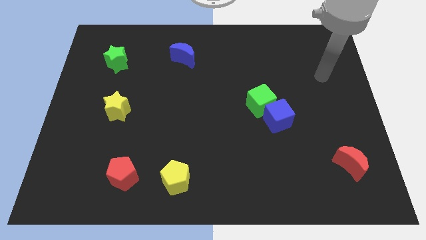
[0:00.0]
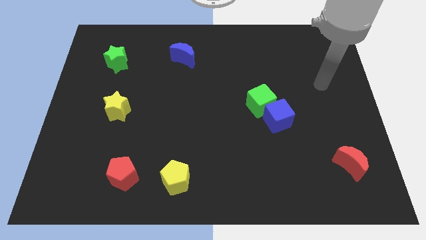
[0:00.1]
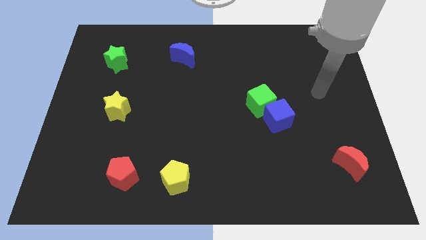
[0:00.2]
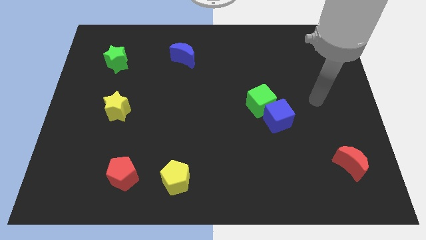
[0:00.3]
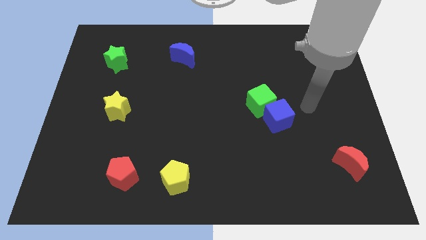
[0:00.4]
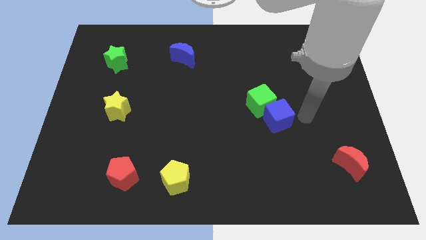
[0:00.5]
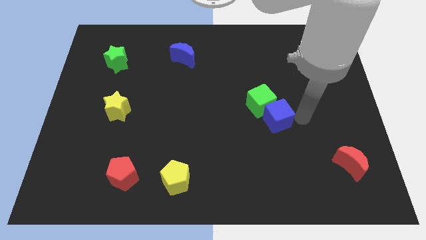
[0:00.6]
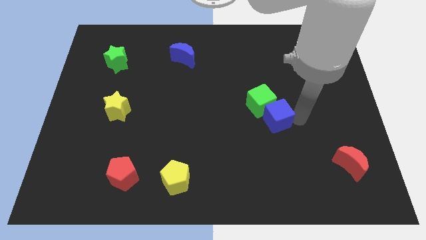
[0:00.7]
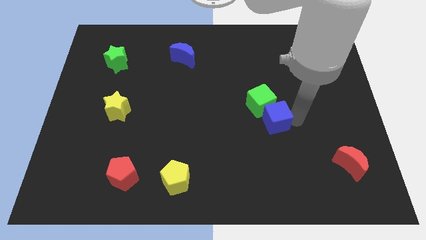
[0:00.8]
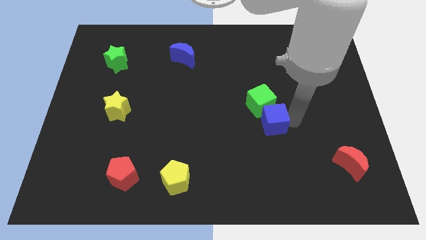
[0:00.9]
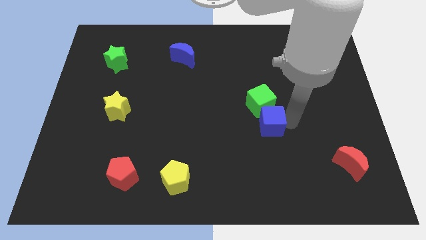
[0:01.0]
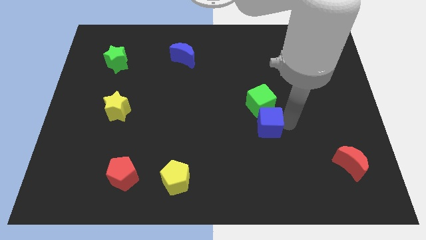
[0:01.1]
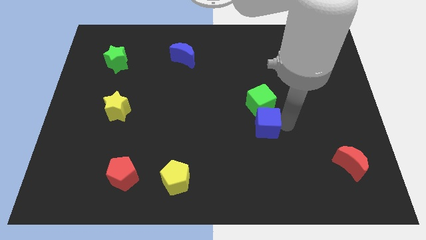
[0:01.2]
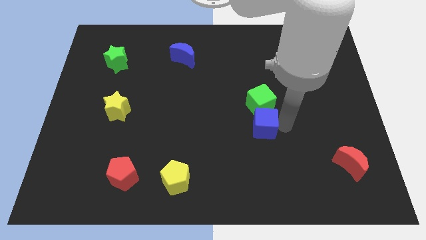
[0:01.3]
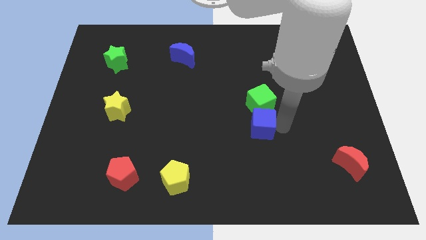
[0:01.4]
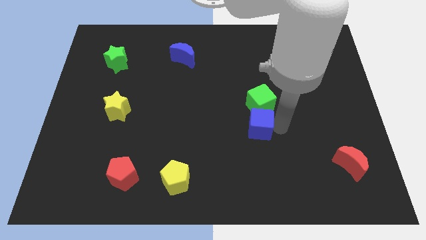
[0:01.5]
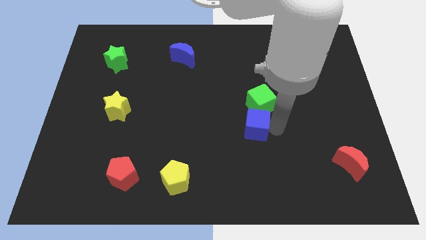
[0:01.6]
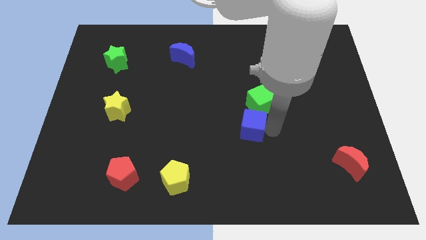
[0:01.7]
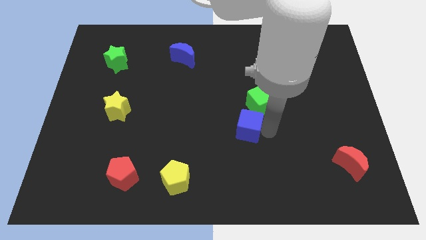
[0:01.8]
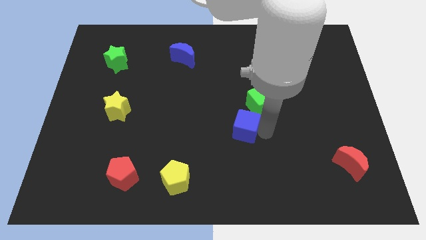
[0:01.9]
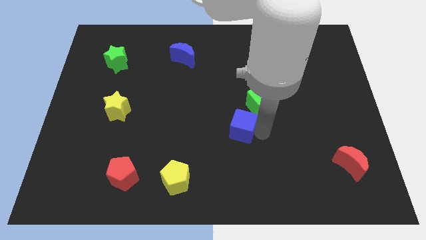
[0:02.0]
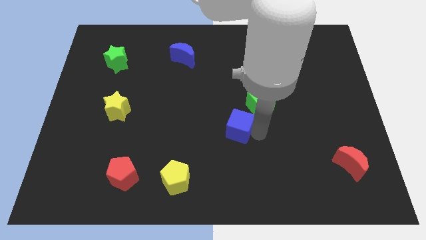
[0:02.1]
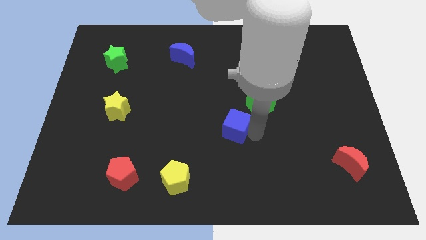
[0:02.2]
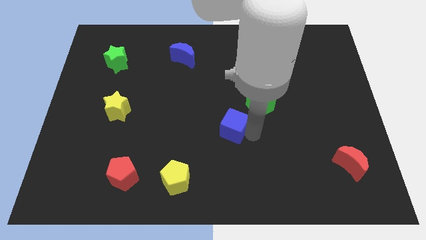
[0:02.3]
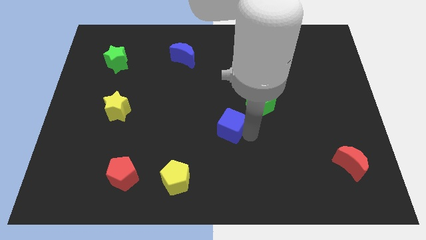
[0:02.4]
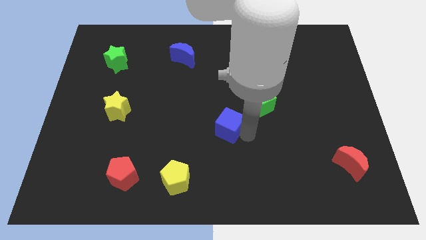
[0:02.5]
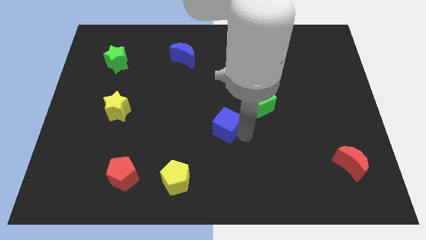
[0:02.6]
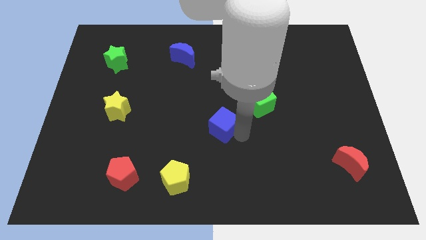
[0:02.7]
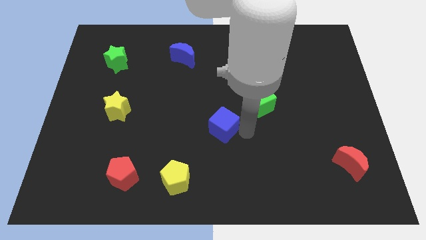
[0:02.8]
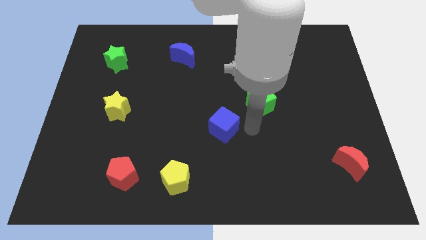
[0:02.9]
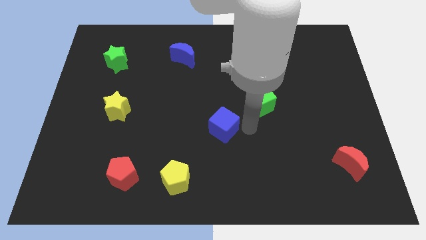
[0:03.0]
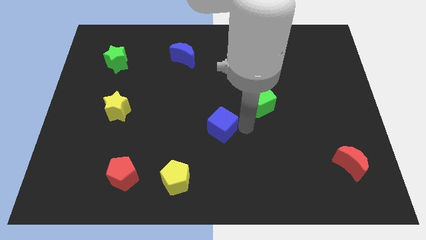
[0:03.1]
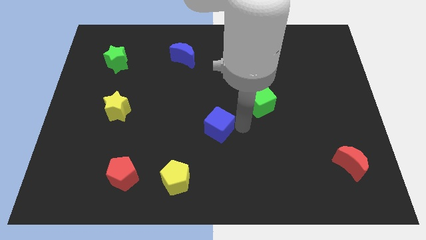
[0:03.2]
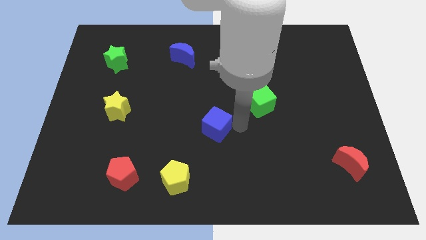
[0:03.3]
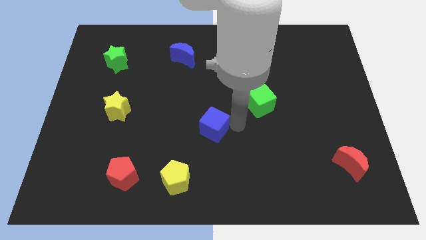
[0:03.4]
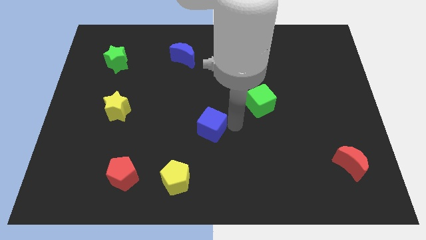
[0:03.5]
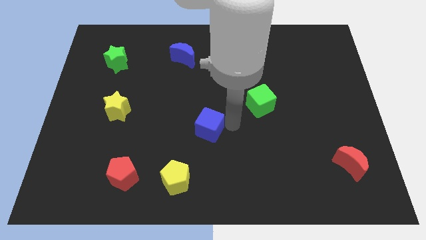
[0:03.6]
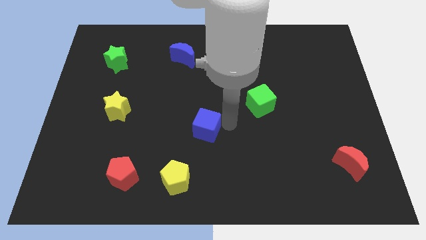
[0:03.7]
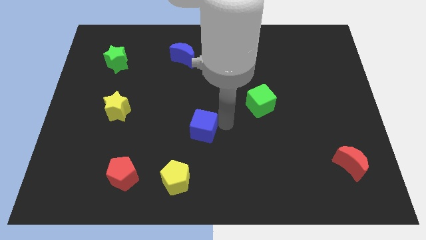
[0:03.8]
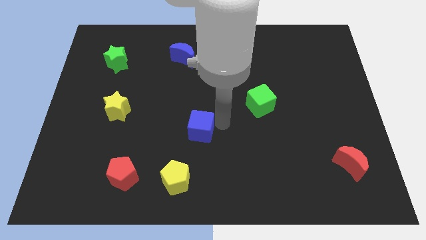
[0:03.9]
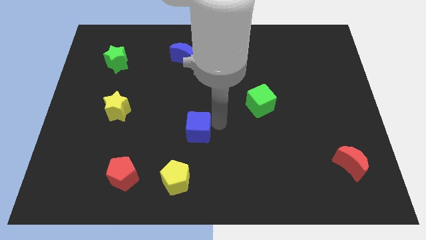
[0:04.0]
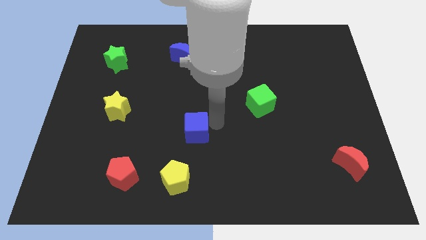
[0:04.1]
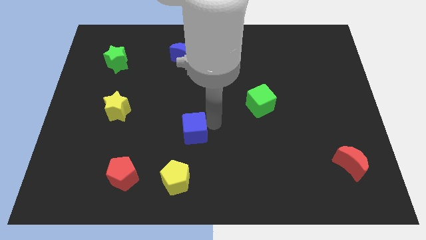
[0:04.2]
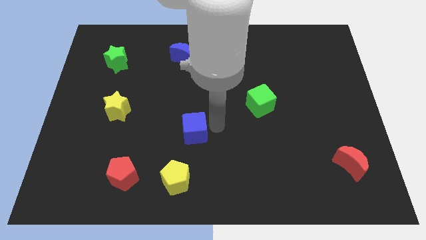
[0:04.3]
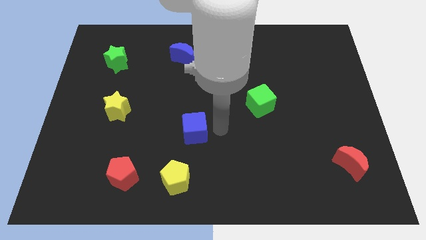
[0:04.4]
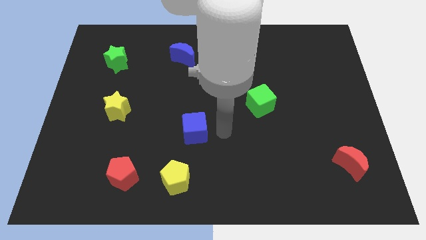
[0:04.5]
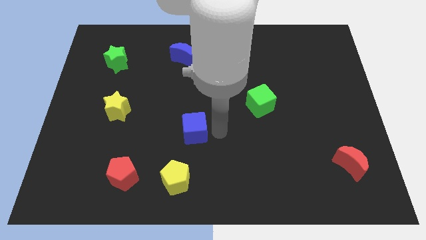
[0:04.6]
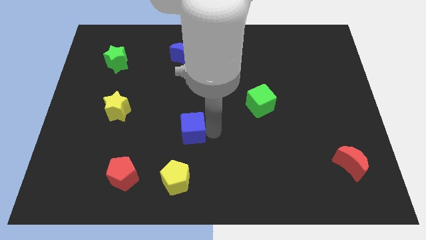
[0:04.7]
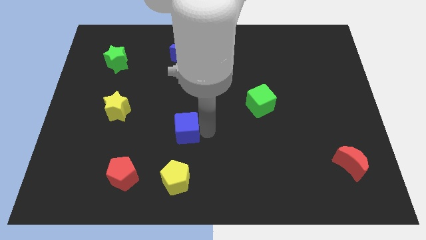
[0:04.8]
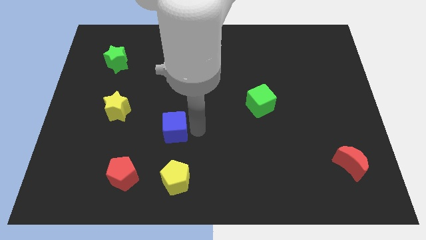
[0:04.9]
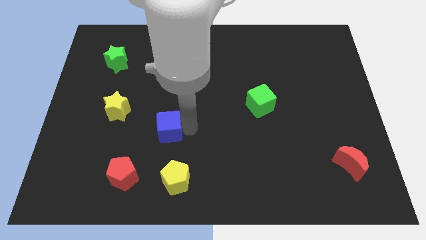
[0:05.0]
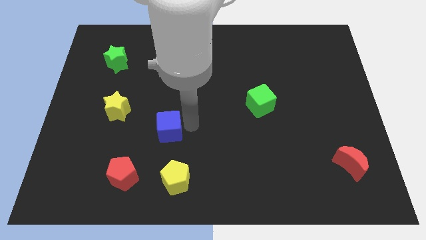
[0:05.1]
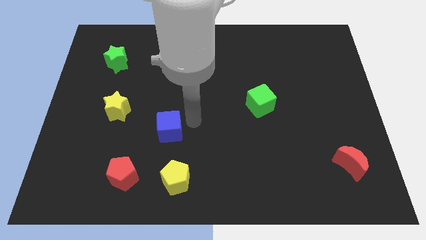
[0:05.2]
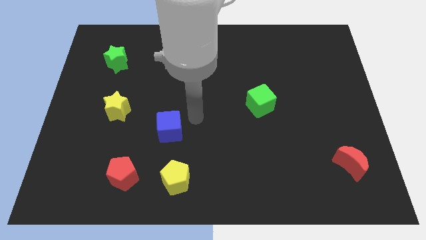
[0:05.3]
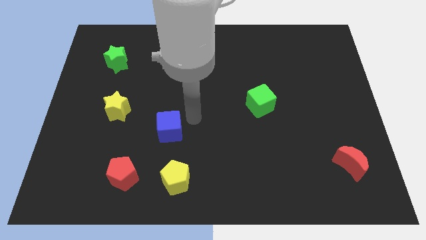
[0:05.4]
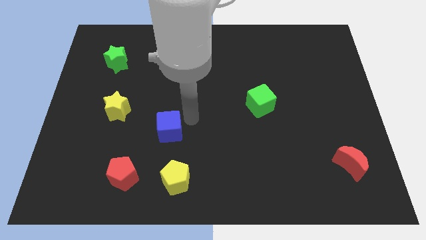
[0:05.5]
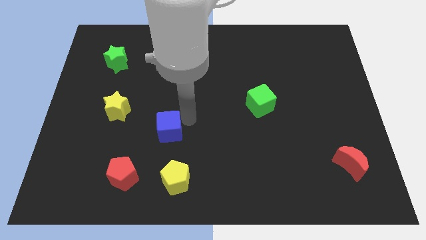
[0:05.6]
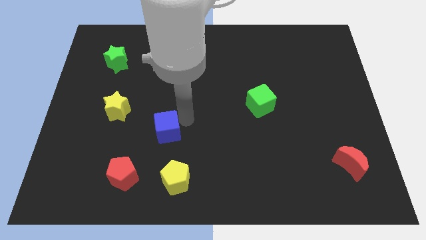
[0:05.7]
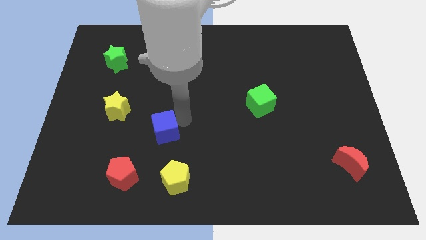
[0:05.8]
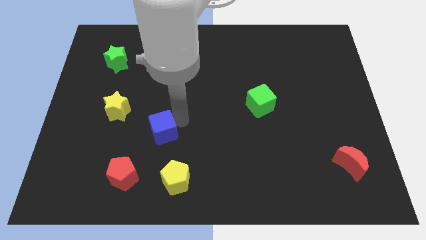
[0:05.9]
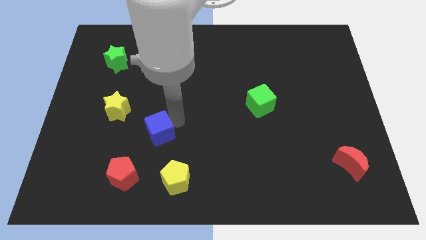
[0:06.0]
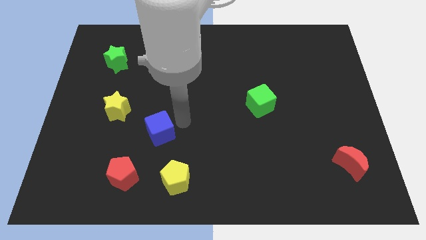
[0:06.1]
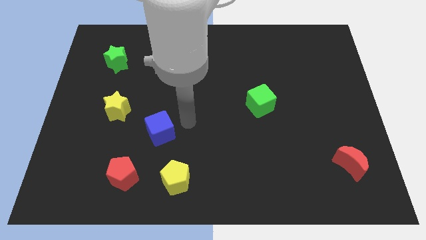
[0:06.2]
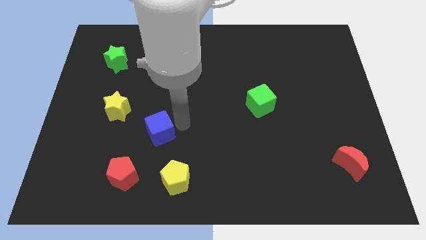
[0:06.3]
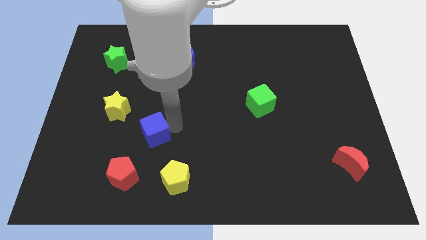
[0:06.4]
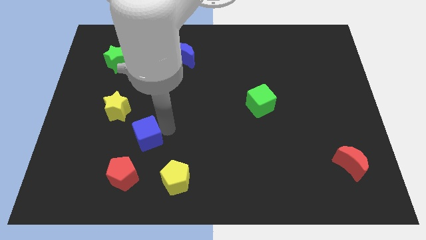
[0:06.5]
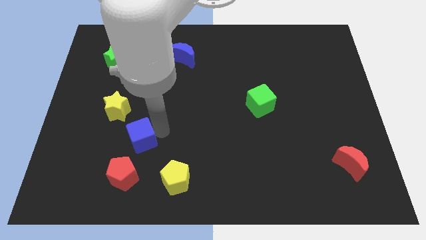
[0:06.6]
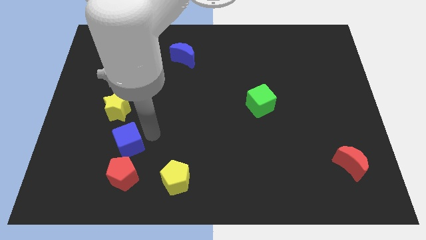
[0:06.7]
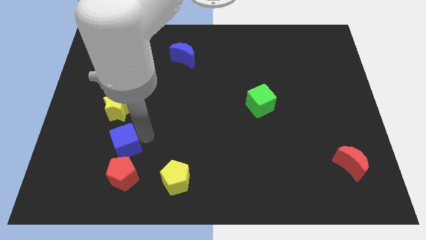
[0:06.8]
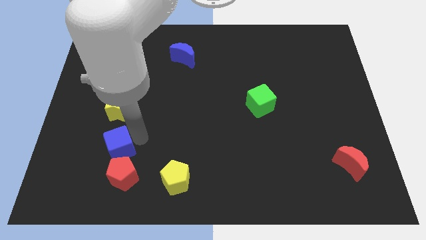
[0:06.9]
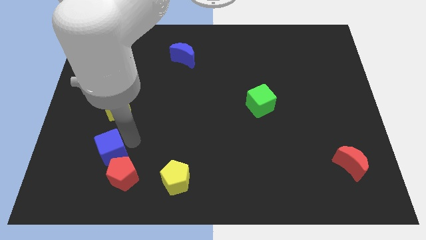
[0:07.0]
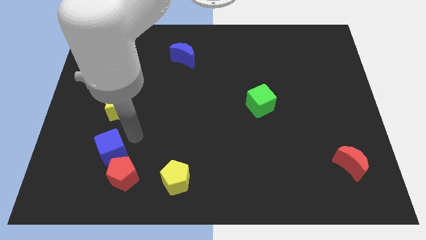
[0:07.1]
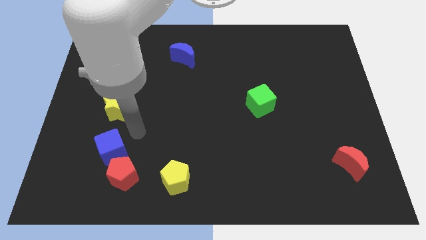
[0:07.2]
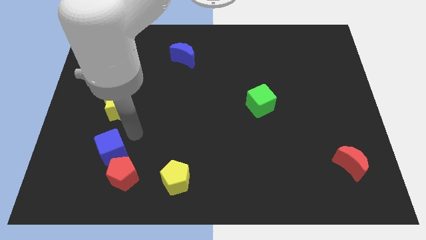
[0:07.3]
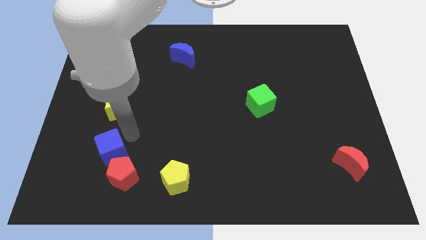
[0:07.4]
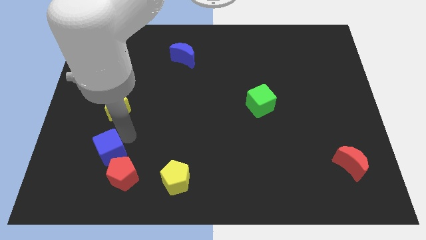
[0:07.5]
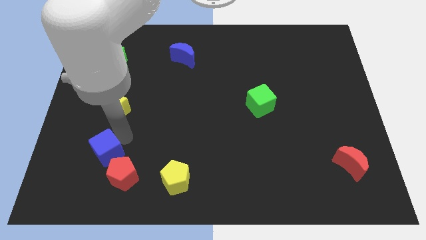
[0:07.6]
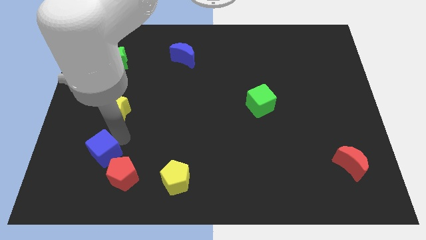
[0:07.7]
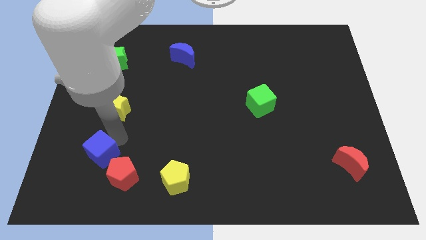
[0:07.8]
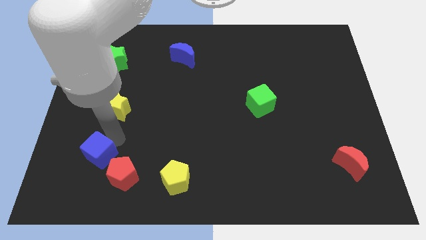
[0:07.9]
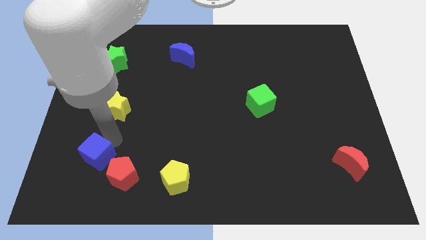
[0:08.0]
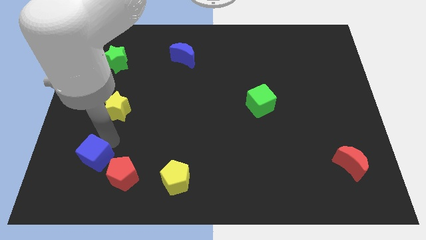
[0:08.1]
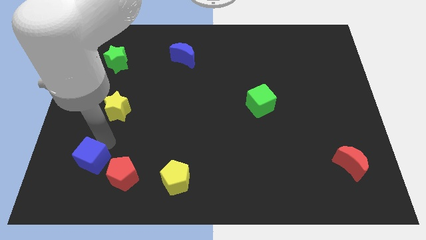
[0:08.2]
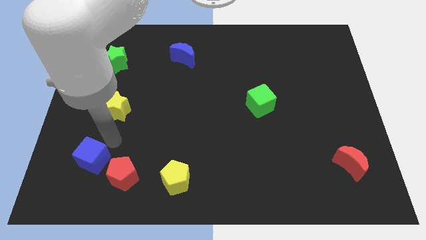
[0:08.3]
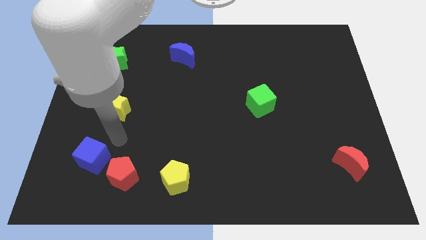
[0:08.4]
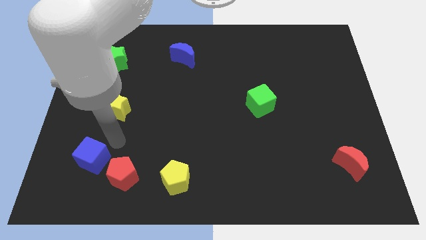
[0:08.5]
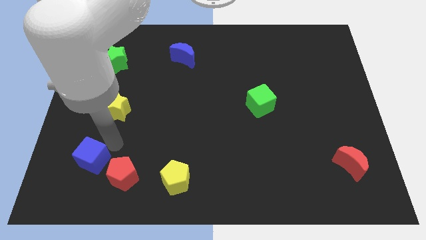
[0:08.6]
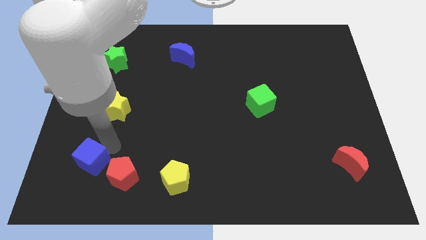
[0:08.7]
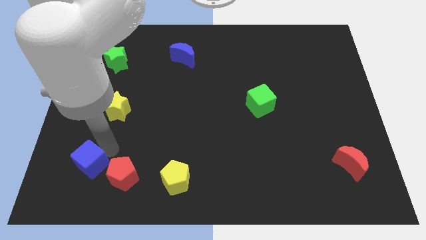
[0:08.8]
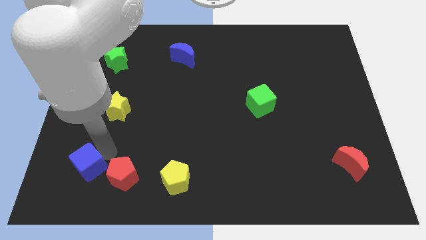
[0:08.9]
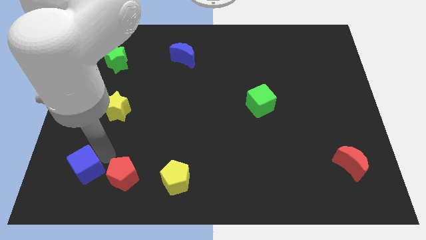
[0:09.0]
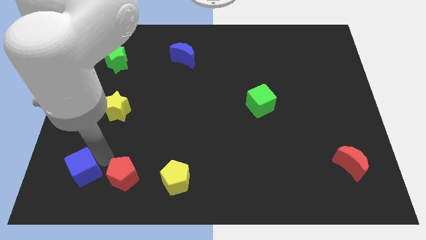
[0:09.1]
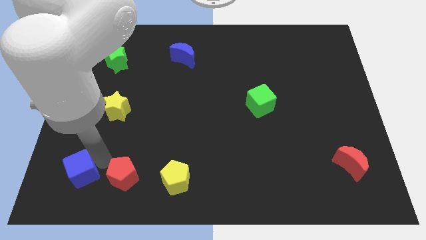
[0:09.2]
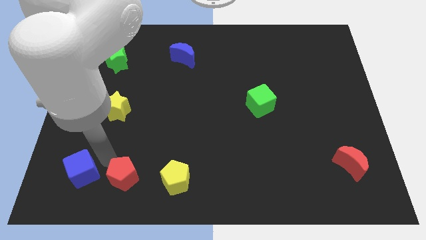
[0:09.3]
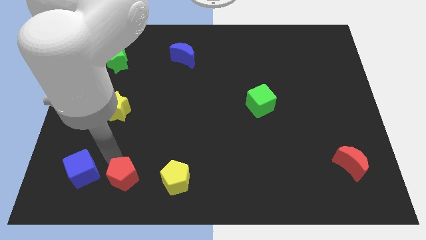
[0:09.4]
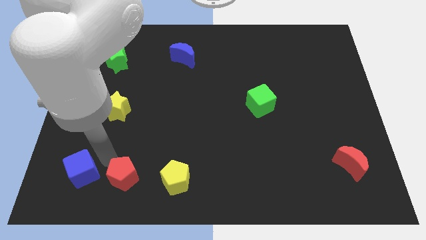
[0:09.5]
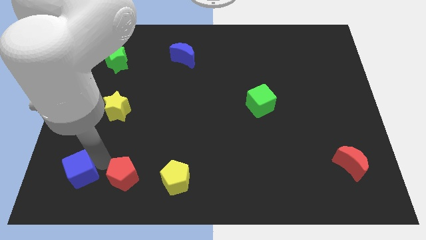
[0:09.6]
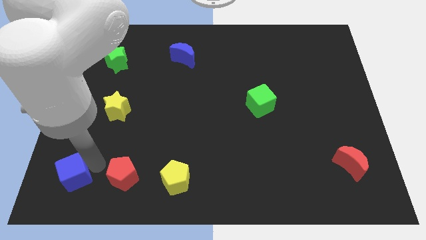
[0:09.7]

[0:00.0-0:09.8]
push the blue cube to the bottom left of the board
